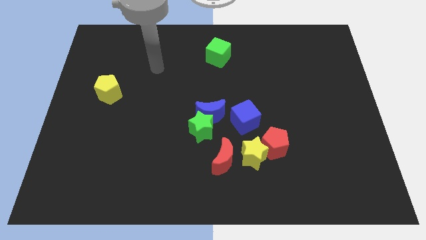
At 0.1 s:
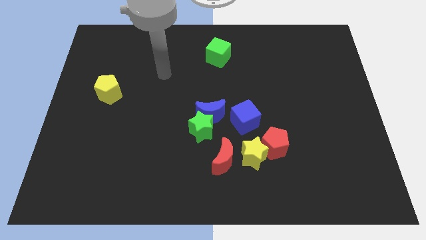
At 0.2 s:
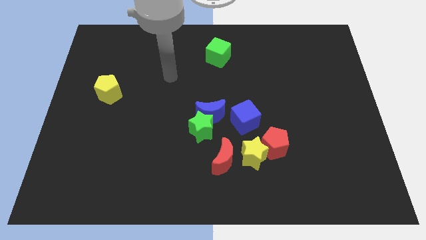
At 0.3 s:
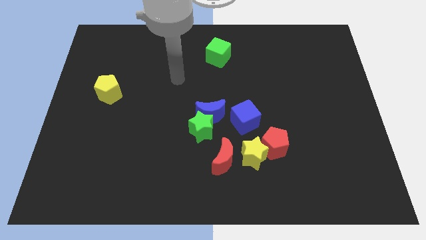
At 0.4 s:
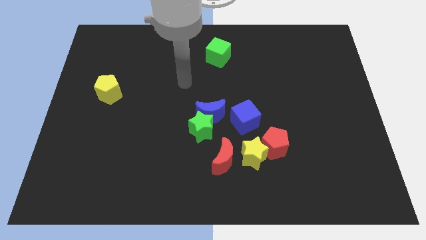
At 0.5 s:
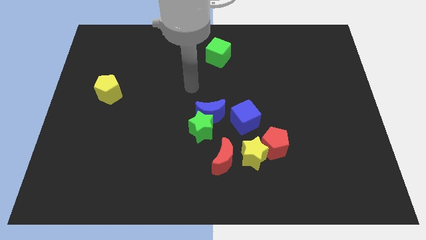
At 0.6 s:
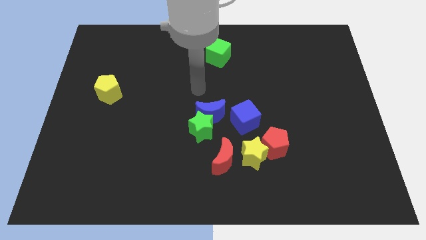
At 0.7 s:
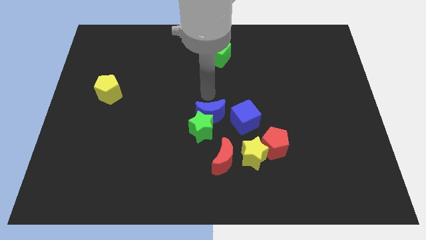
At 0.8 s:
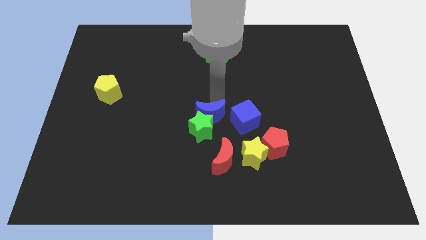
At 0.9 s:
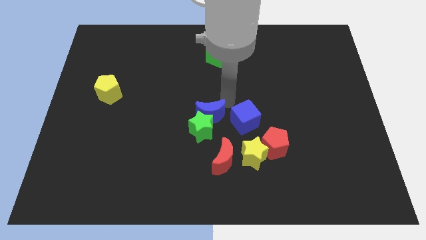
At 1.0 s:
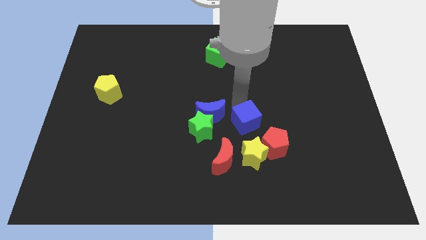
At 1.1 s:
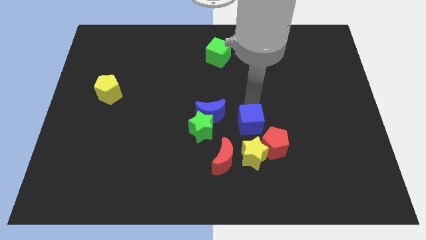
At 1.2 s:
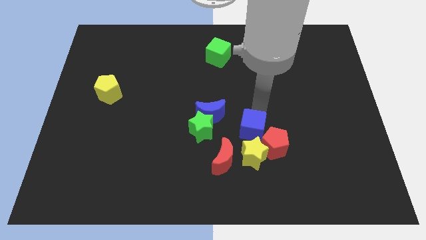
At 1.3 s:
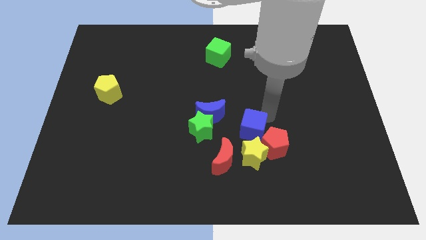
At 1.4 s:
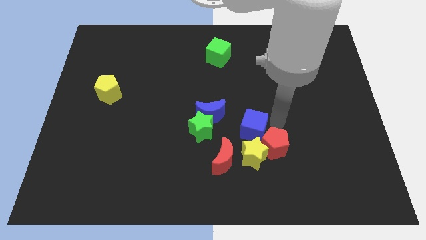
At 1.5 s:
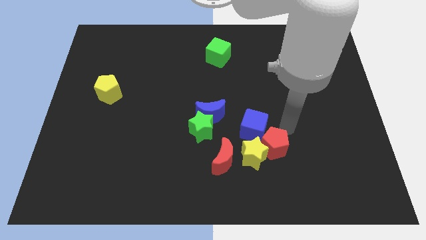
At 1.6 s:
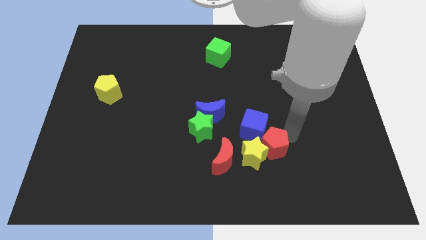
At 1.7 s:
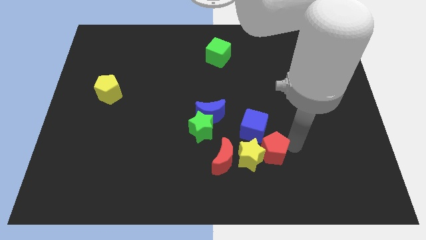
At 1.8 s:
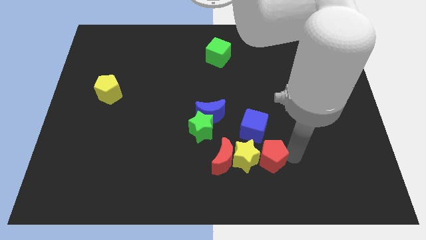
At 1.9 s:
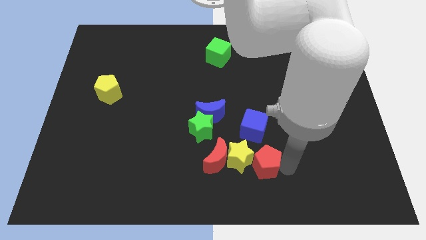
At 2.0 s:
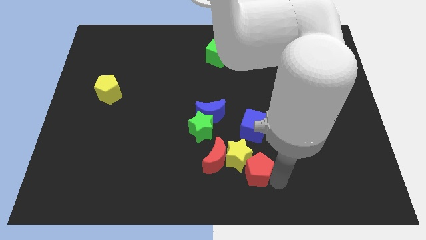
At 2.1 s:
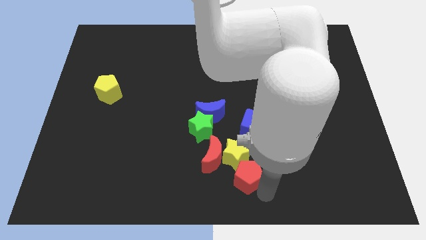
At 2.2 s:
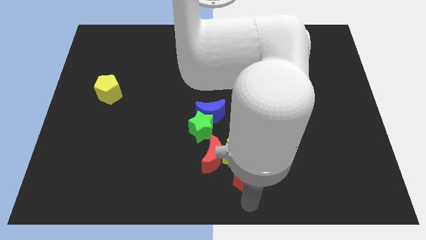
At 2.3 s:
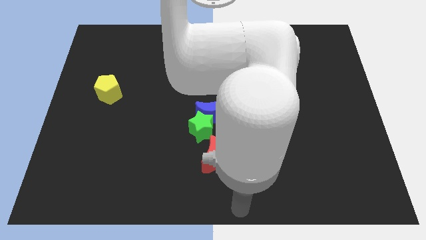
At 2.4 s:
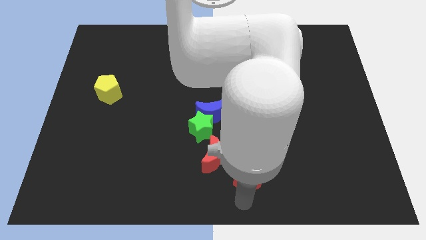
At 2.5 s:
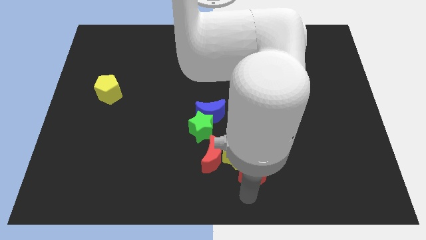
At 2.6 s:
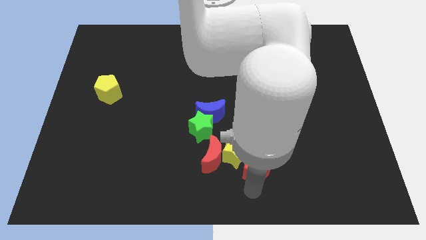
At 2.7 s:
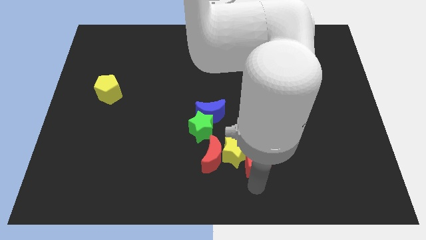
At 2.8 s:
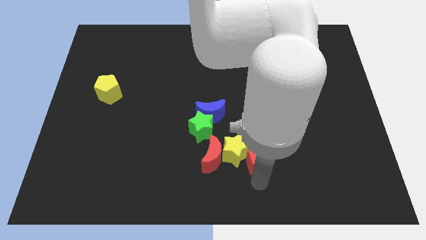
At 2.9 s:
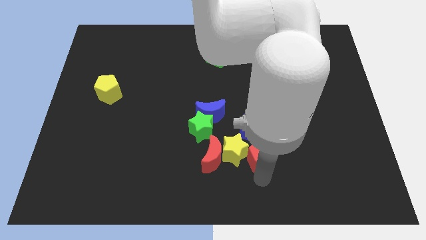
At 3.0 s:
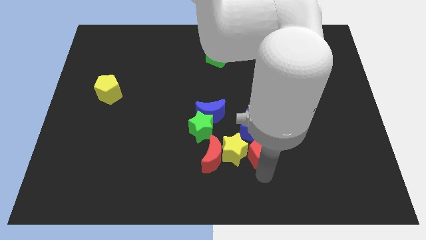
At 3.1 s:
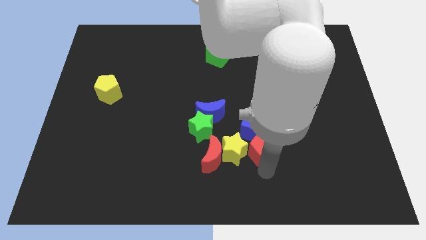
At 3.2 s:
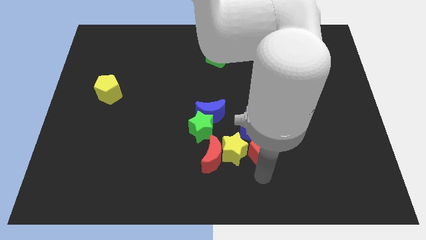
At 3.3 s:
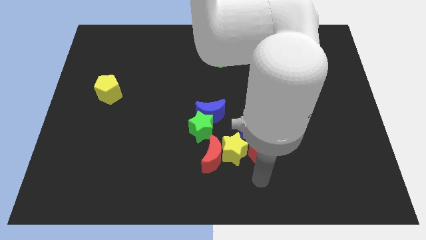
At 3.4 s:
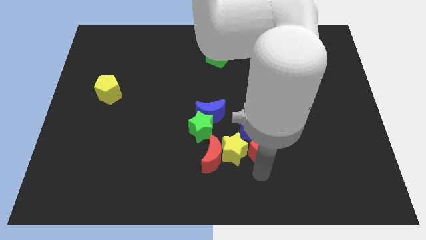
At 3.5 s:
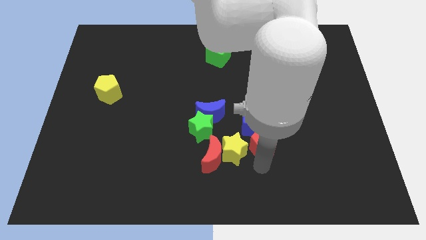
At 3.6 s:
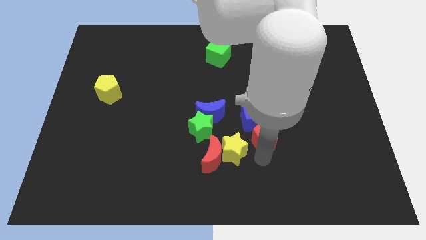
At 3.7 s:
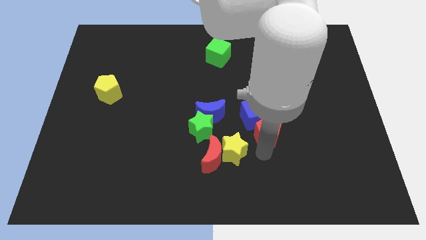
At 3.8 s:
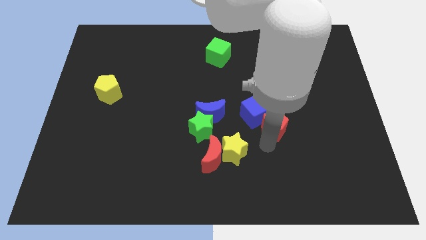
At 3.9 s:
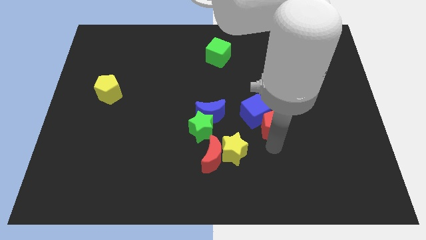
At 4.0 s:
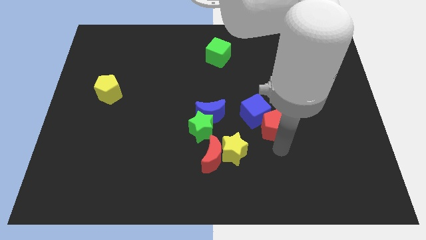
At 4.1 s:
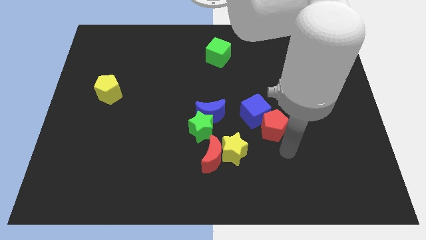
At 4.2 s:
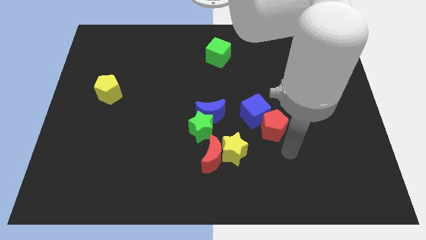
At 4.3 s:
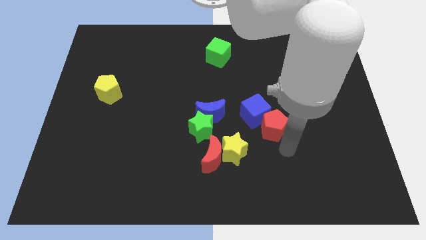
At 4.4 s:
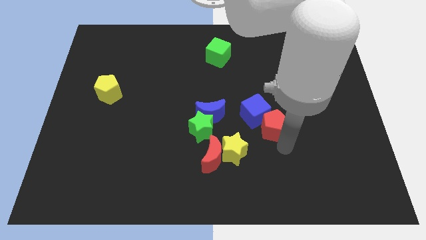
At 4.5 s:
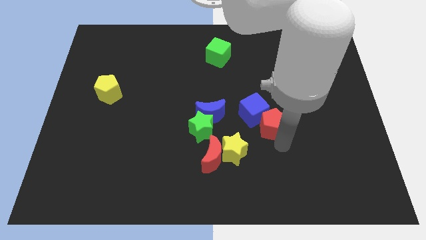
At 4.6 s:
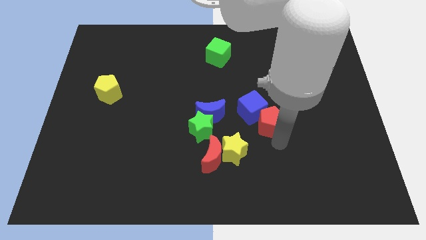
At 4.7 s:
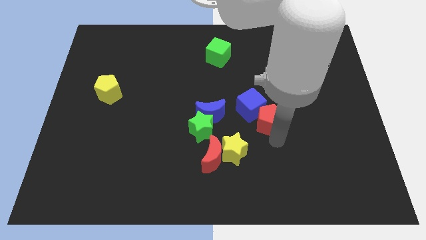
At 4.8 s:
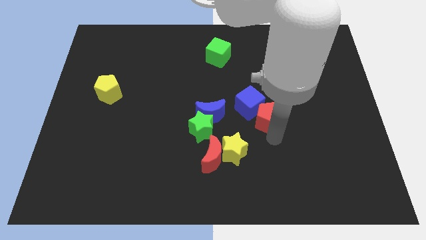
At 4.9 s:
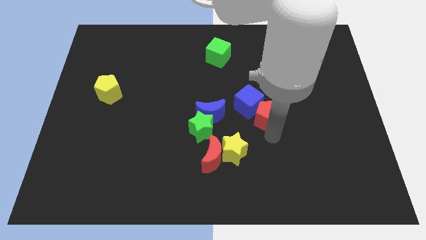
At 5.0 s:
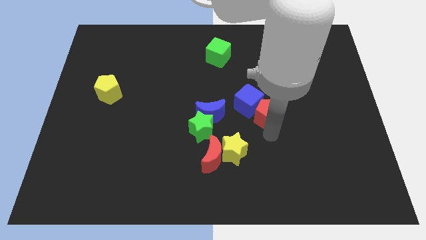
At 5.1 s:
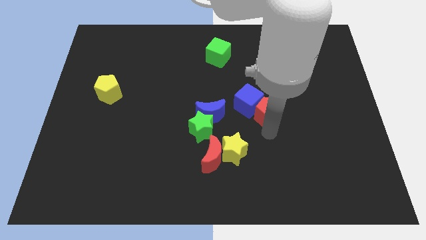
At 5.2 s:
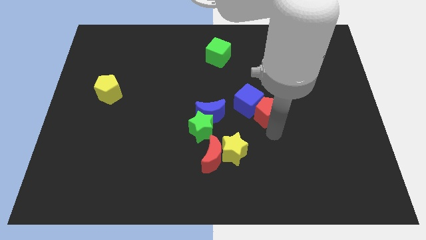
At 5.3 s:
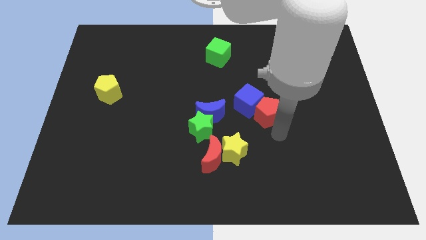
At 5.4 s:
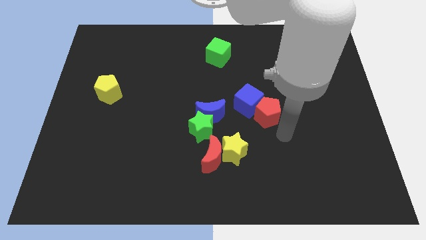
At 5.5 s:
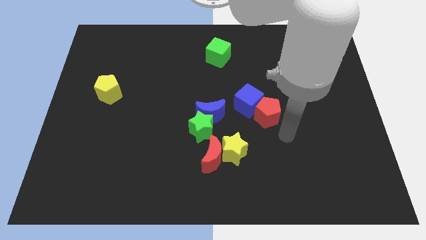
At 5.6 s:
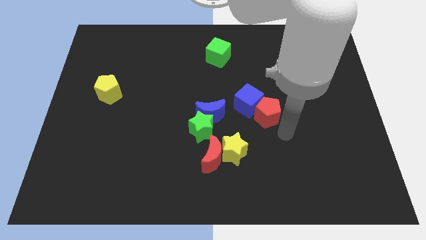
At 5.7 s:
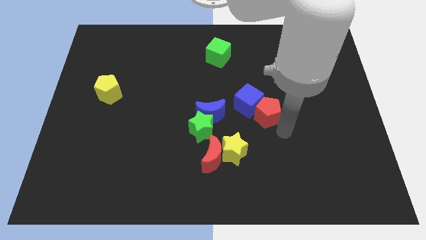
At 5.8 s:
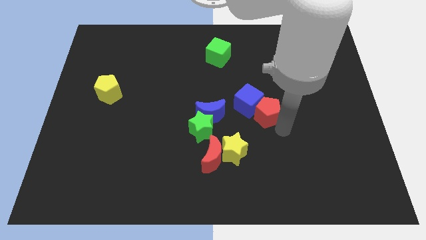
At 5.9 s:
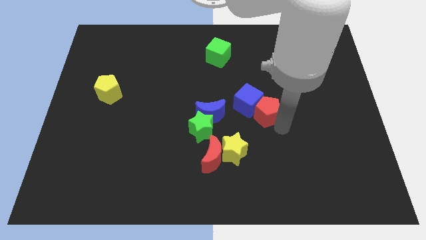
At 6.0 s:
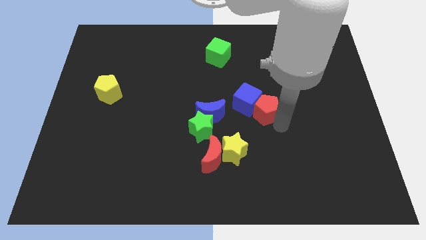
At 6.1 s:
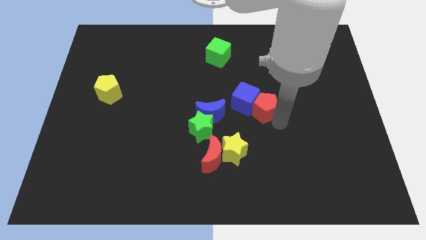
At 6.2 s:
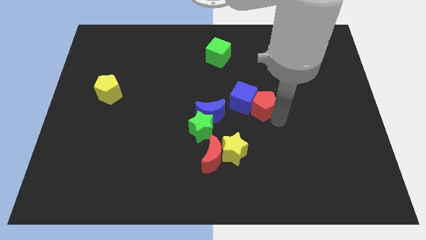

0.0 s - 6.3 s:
slide the red pentagon slightly upwards and then to the left

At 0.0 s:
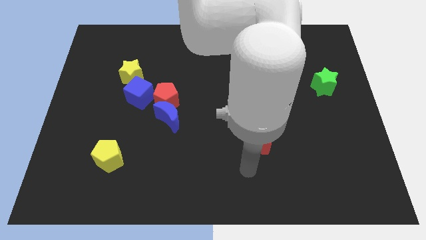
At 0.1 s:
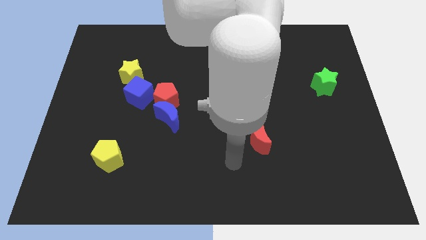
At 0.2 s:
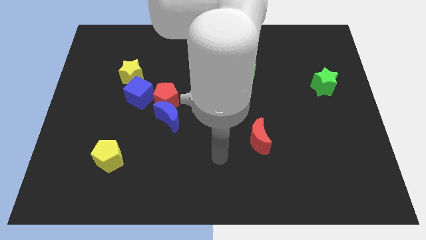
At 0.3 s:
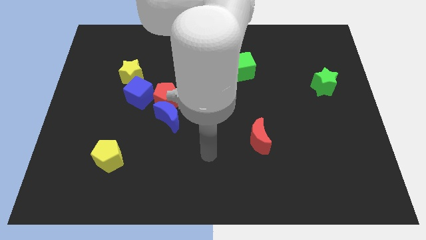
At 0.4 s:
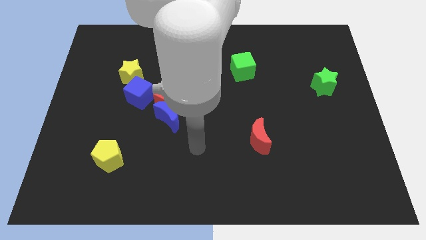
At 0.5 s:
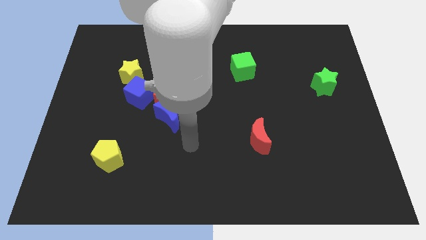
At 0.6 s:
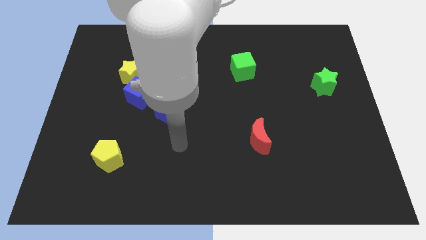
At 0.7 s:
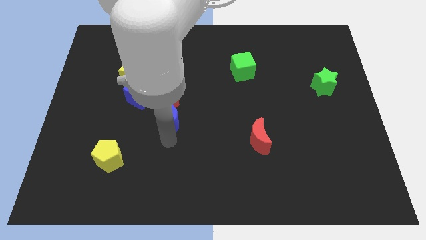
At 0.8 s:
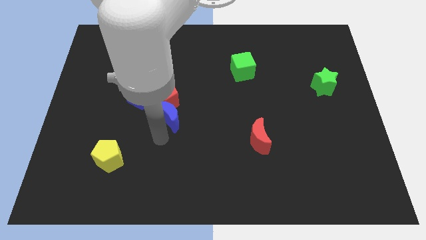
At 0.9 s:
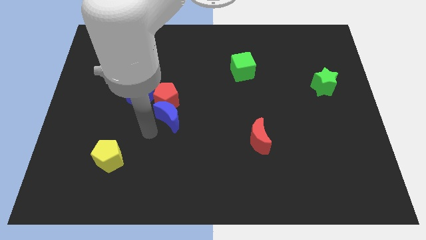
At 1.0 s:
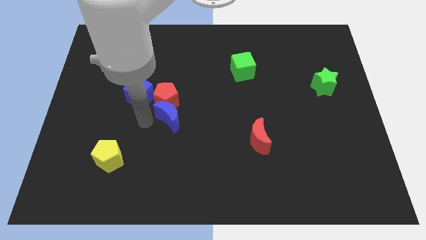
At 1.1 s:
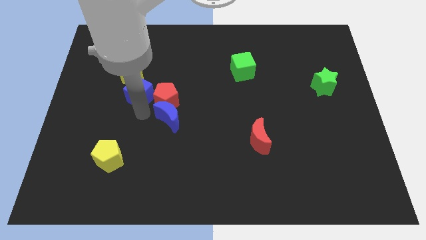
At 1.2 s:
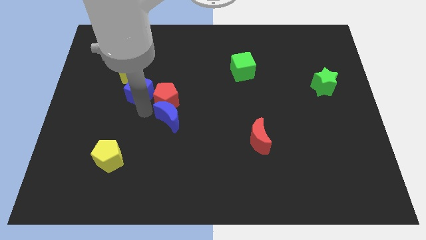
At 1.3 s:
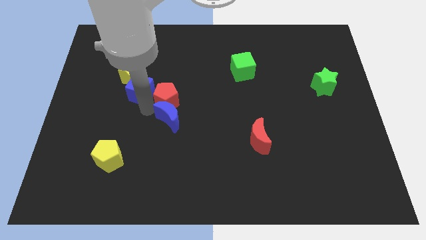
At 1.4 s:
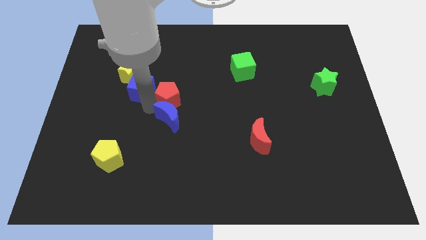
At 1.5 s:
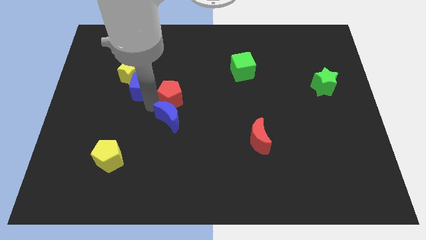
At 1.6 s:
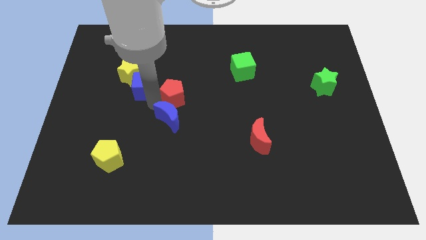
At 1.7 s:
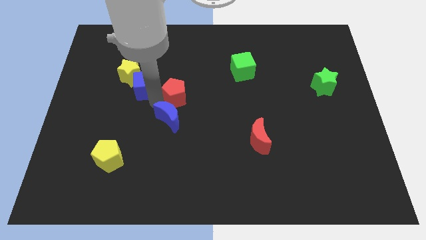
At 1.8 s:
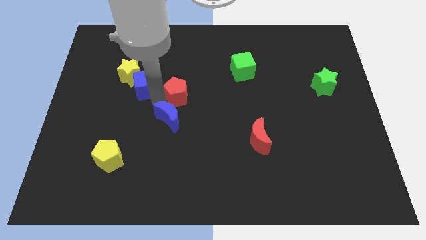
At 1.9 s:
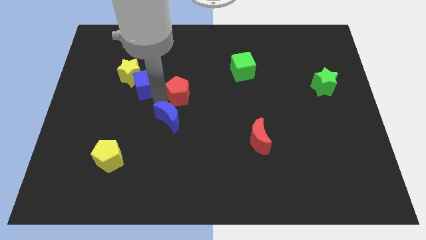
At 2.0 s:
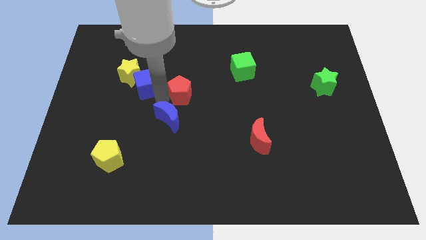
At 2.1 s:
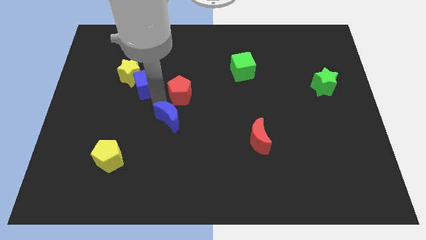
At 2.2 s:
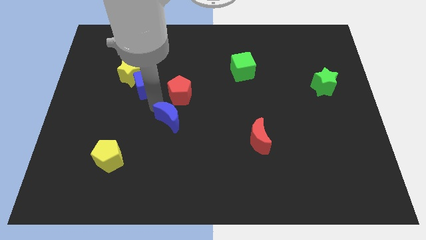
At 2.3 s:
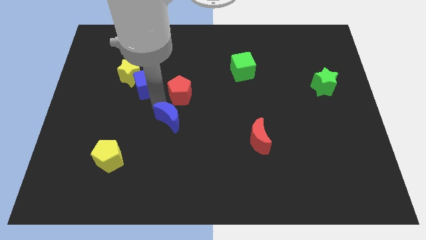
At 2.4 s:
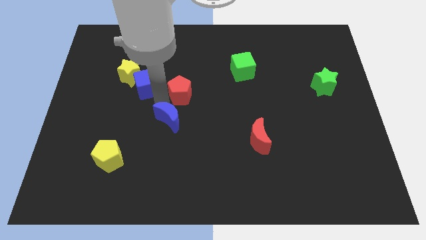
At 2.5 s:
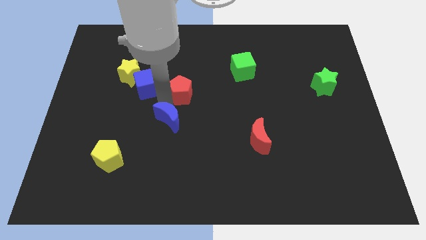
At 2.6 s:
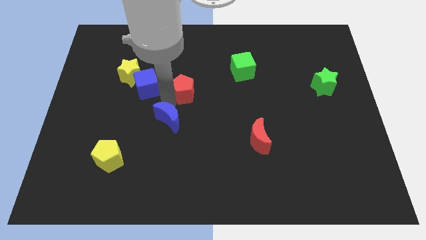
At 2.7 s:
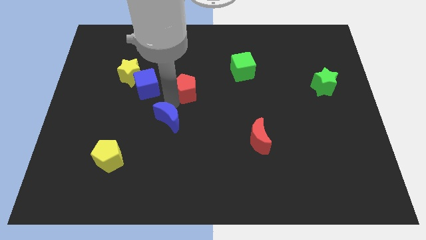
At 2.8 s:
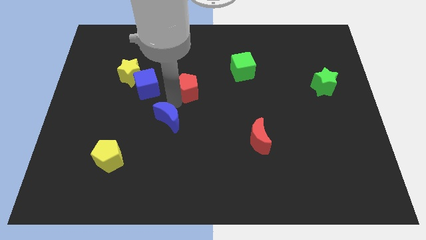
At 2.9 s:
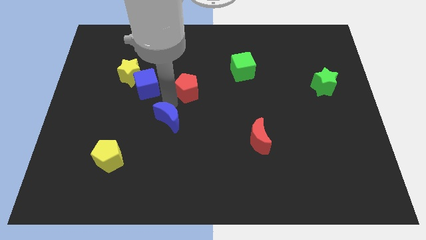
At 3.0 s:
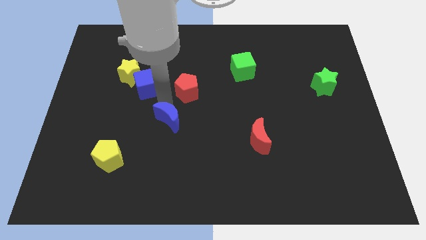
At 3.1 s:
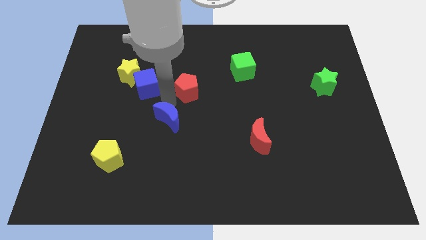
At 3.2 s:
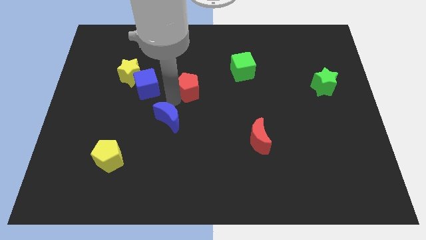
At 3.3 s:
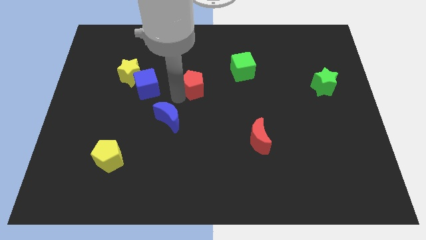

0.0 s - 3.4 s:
push the red pentagon upwards and right a little
